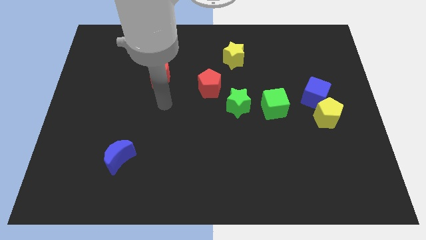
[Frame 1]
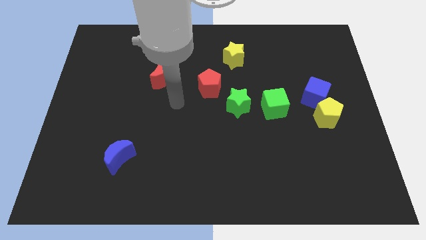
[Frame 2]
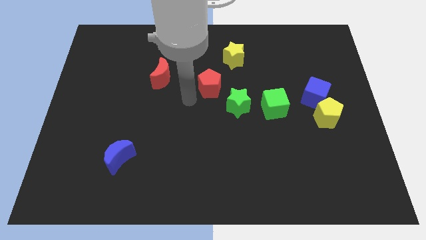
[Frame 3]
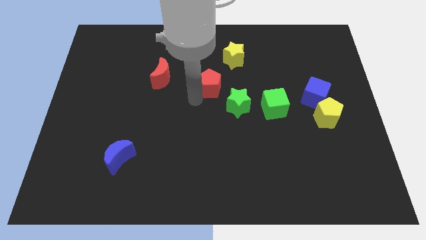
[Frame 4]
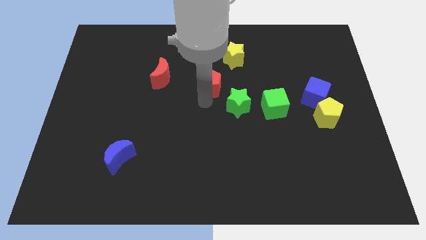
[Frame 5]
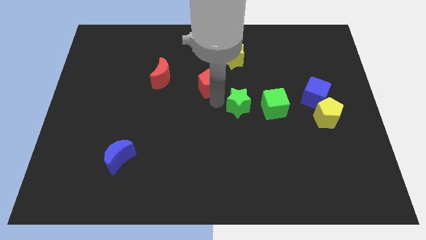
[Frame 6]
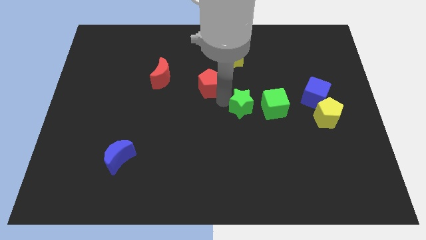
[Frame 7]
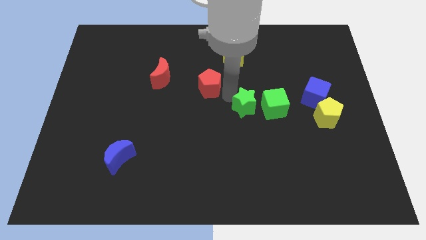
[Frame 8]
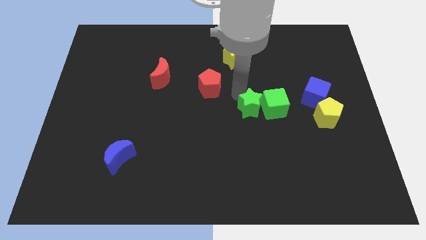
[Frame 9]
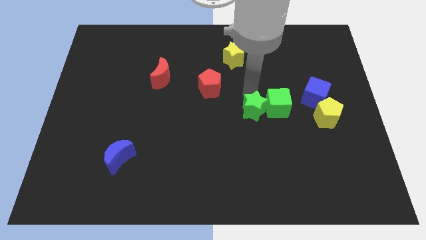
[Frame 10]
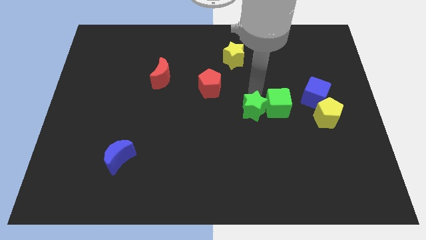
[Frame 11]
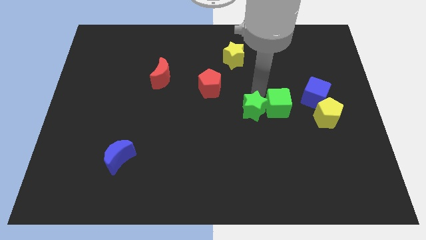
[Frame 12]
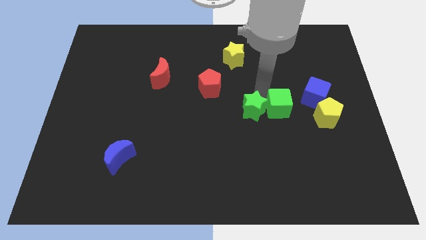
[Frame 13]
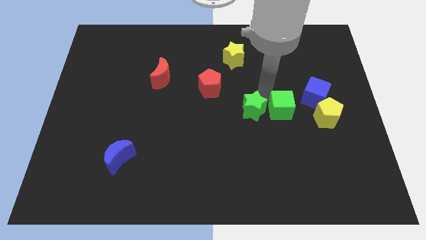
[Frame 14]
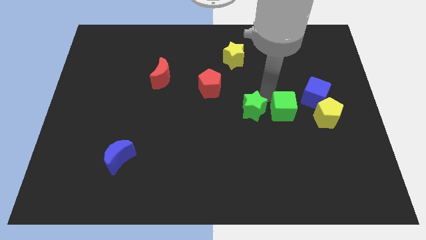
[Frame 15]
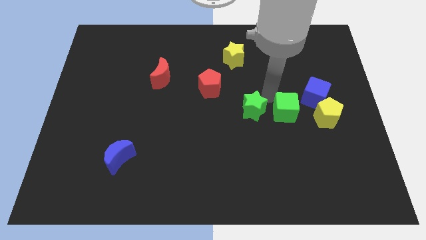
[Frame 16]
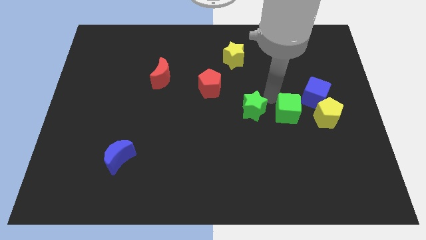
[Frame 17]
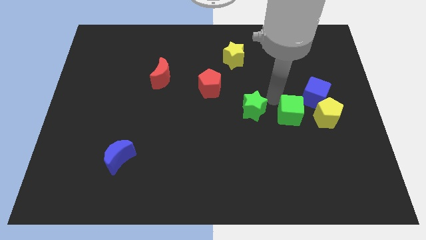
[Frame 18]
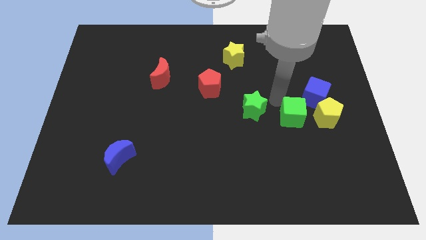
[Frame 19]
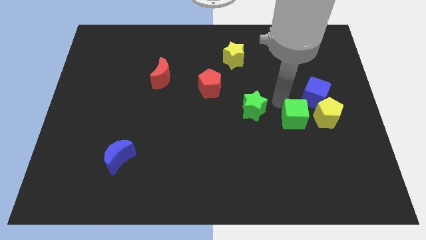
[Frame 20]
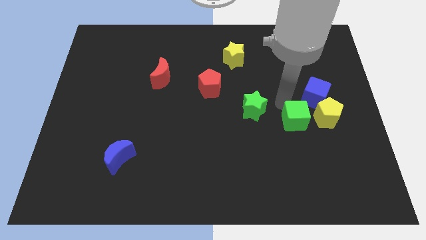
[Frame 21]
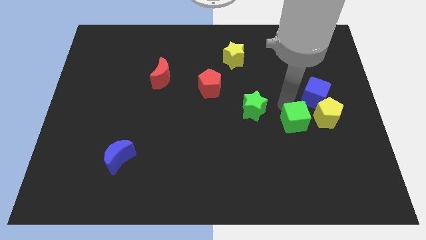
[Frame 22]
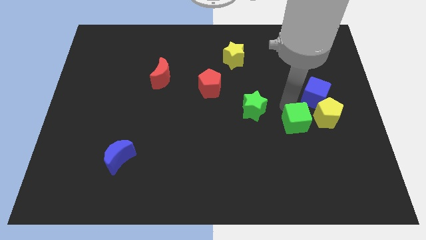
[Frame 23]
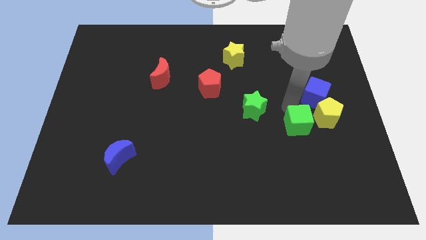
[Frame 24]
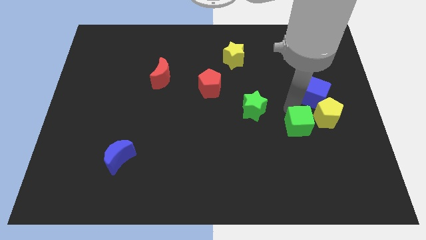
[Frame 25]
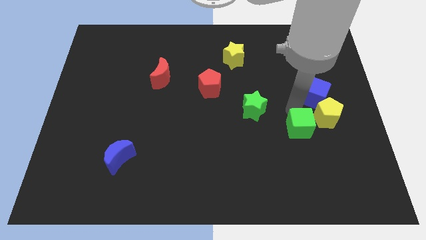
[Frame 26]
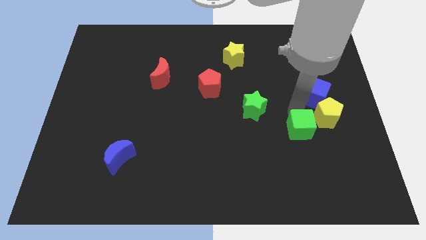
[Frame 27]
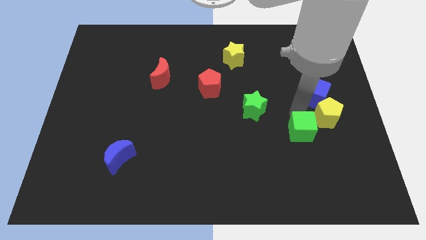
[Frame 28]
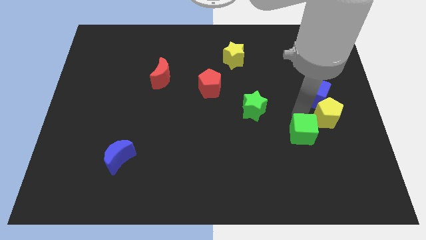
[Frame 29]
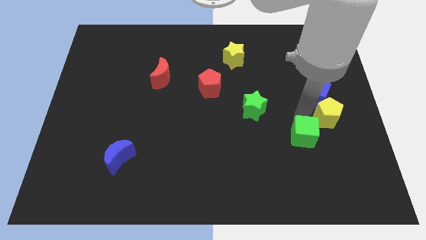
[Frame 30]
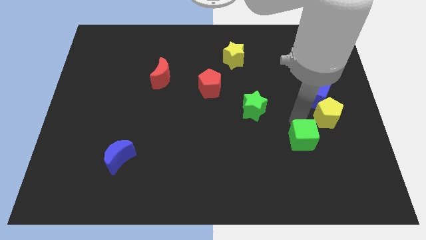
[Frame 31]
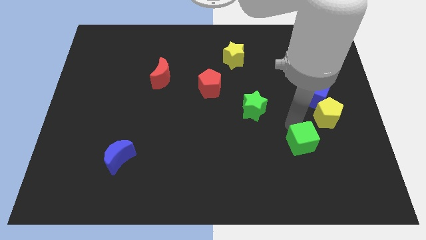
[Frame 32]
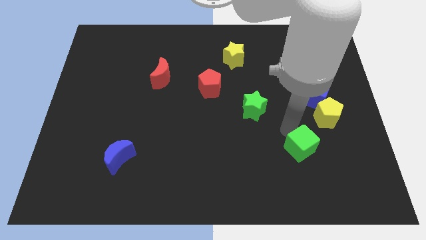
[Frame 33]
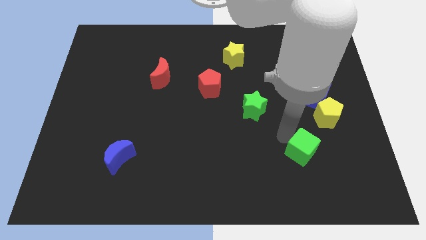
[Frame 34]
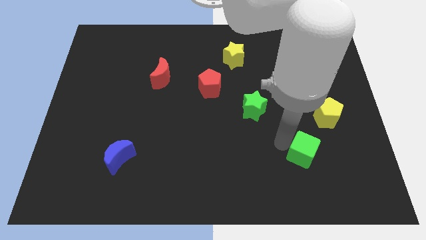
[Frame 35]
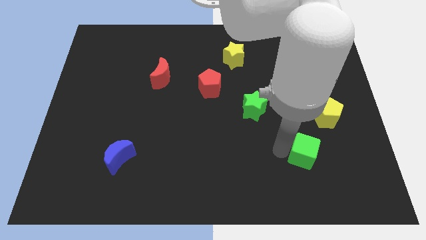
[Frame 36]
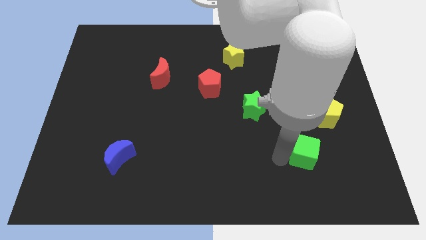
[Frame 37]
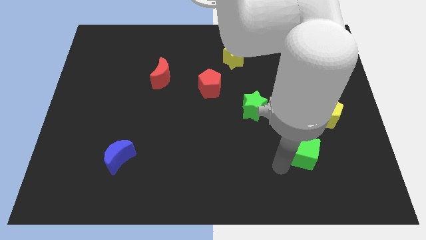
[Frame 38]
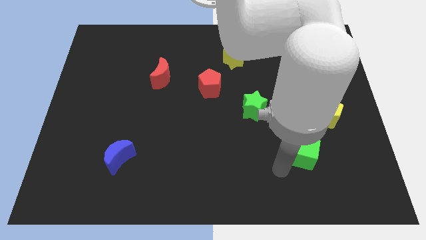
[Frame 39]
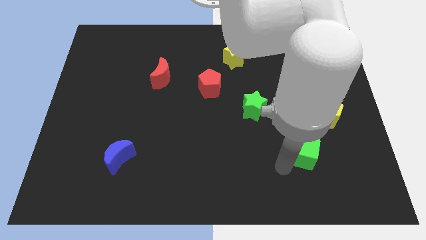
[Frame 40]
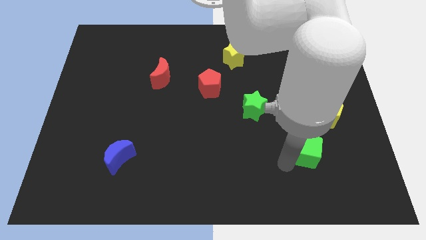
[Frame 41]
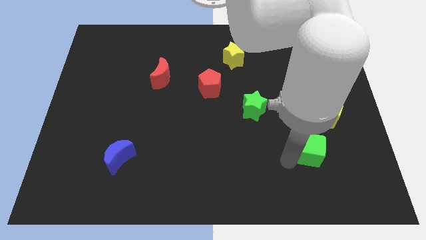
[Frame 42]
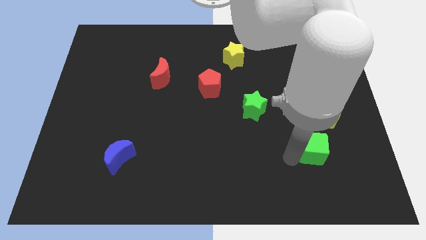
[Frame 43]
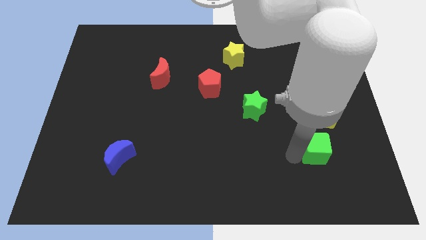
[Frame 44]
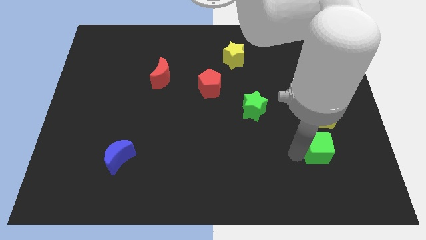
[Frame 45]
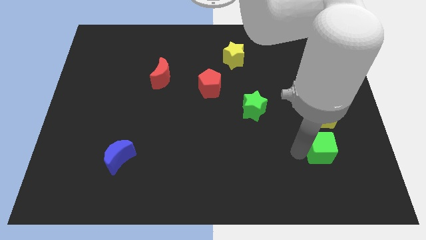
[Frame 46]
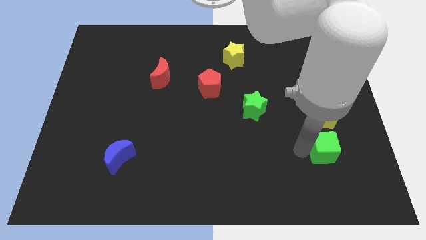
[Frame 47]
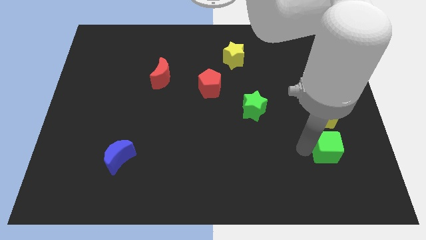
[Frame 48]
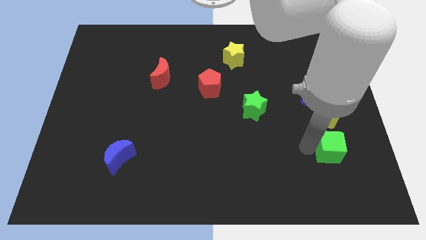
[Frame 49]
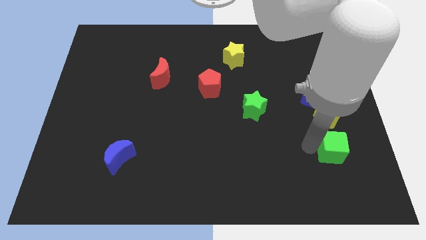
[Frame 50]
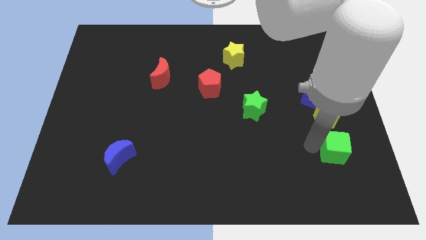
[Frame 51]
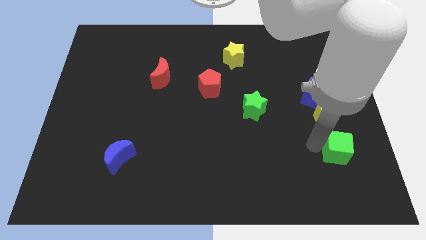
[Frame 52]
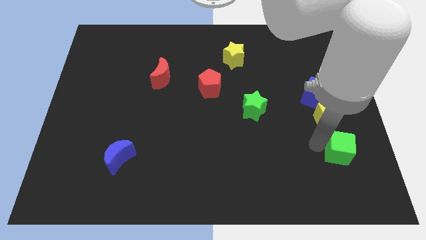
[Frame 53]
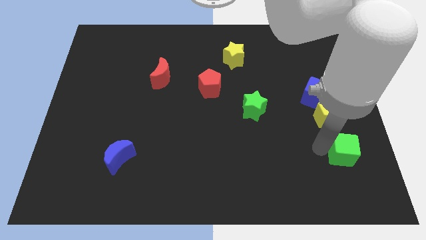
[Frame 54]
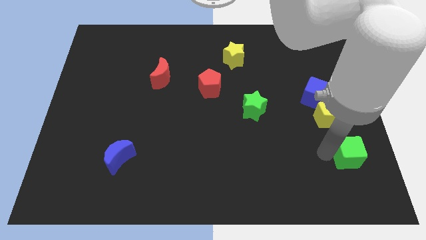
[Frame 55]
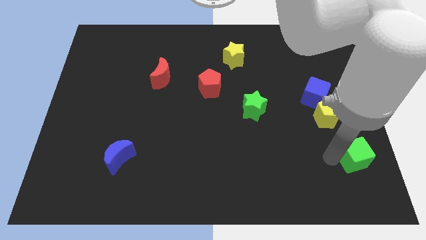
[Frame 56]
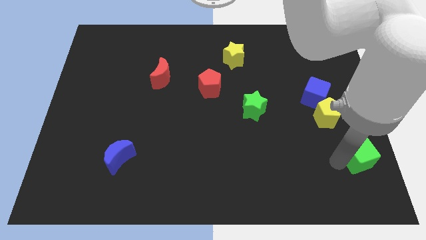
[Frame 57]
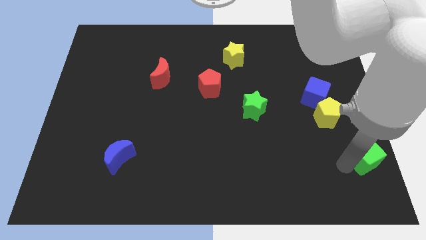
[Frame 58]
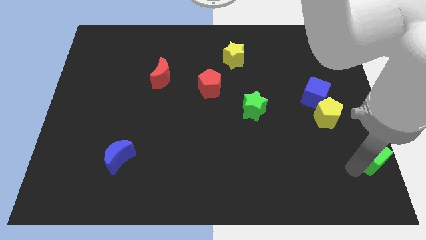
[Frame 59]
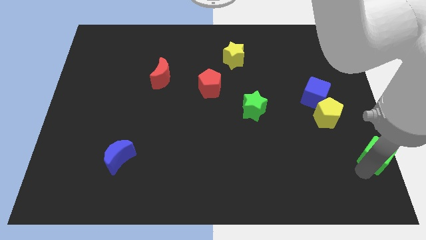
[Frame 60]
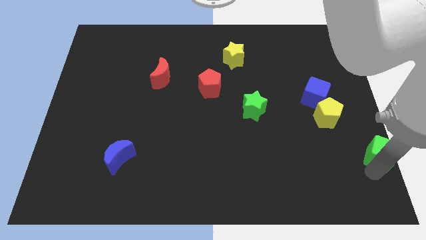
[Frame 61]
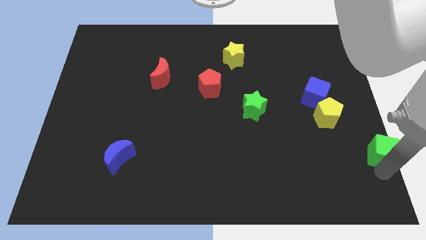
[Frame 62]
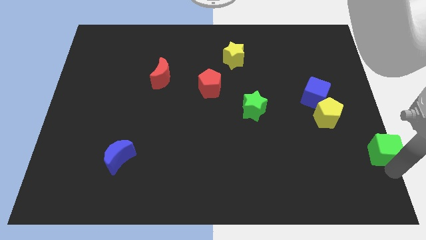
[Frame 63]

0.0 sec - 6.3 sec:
push the green cube to the right side of the board
